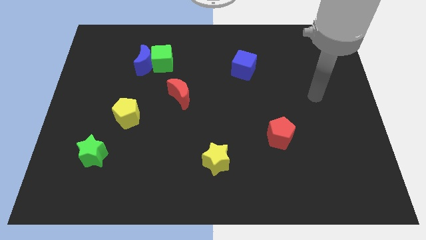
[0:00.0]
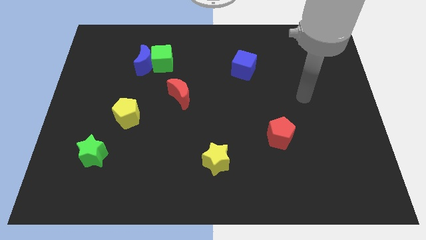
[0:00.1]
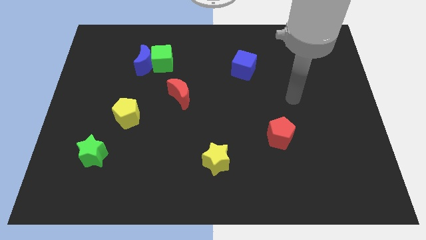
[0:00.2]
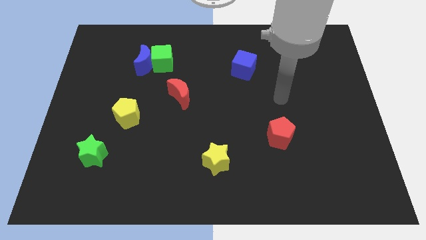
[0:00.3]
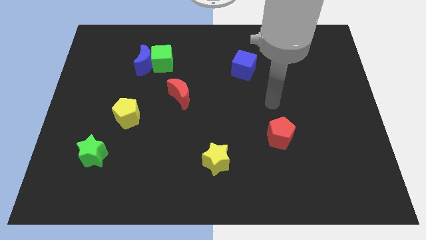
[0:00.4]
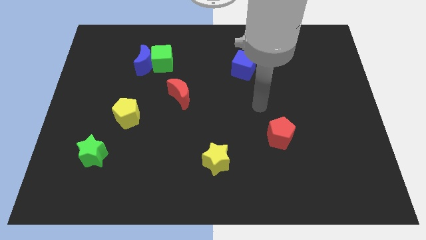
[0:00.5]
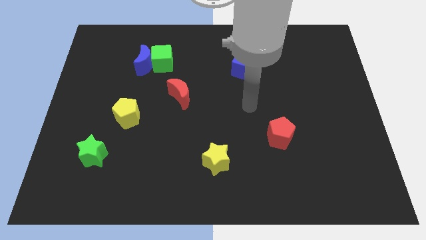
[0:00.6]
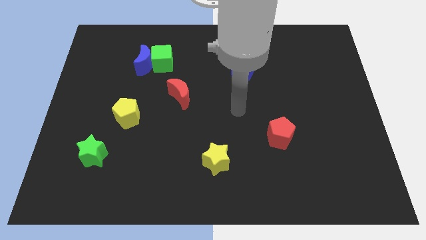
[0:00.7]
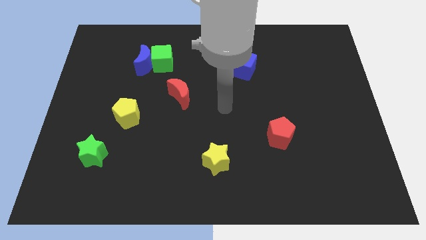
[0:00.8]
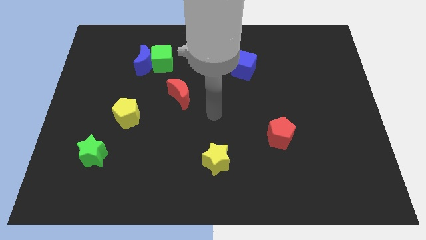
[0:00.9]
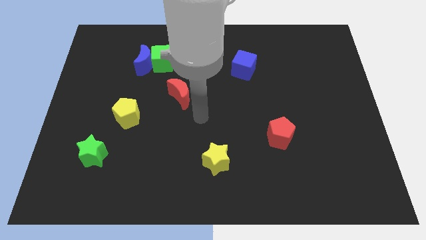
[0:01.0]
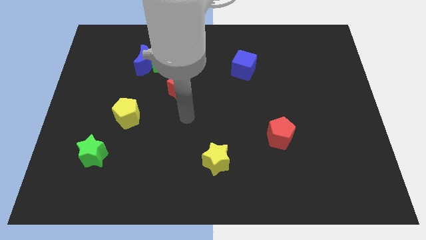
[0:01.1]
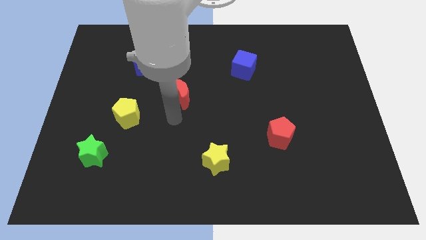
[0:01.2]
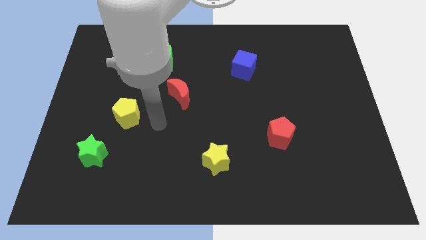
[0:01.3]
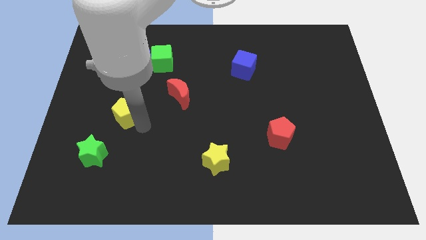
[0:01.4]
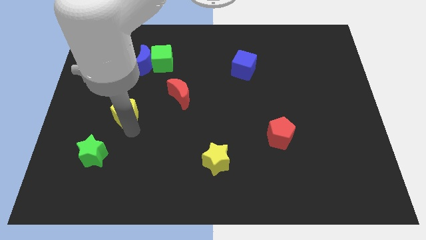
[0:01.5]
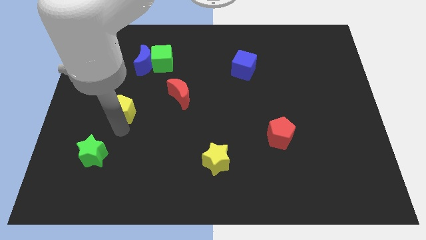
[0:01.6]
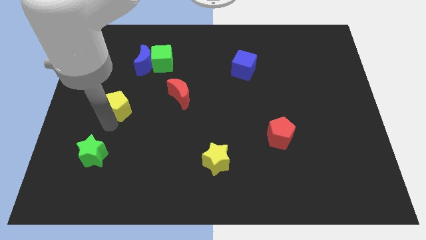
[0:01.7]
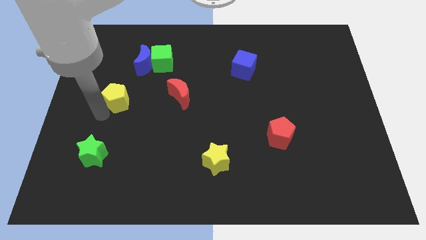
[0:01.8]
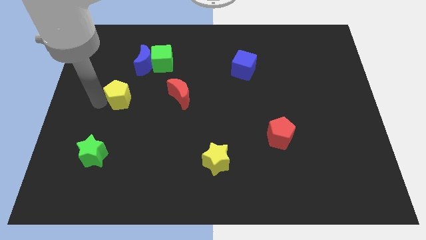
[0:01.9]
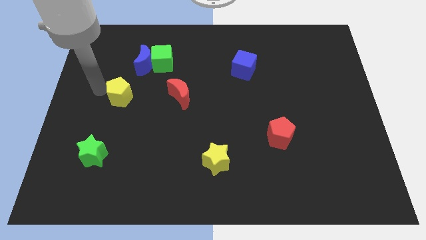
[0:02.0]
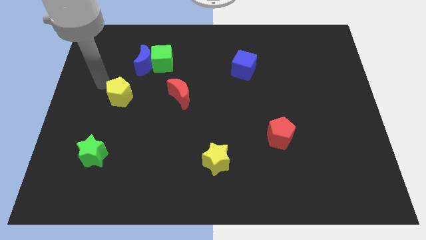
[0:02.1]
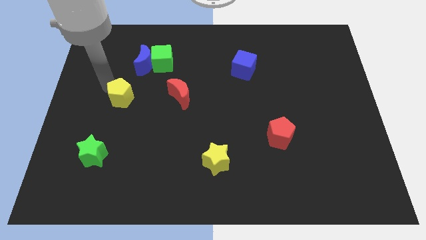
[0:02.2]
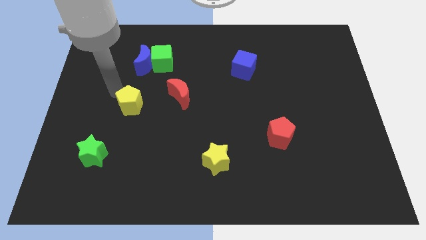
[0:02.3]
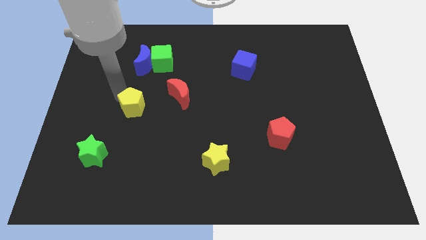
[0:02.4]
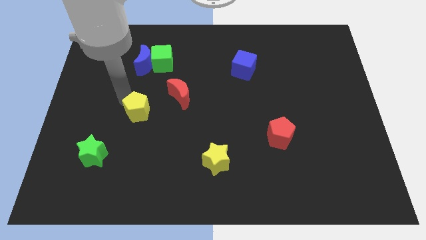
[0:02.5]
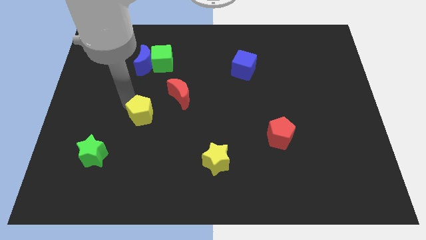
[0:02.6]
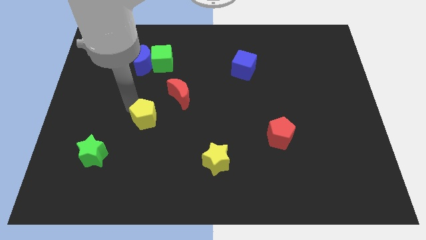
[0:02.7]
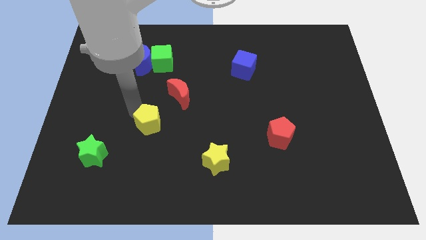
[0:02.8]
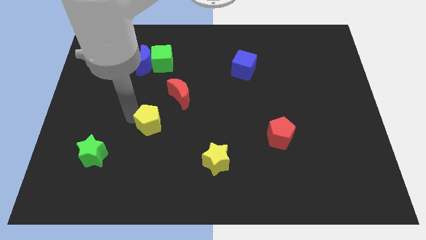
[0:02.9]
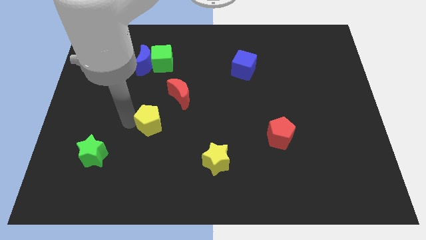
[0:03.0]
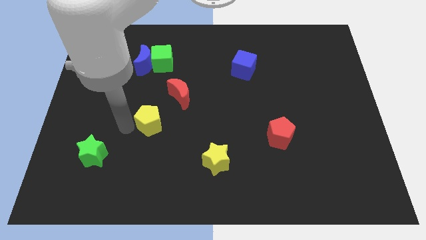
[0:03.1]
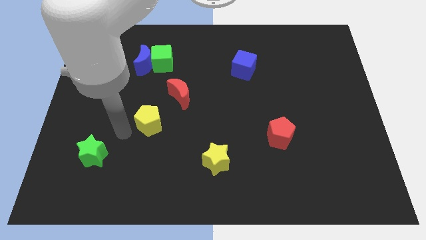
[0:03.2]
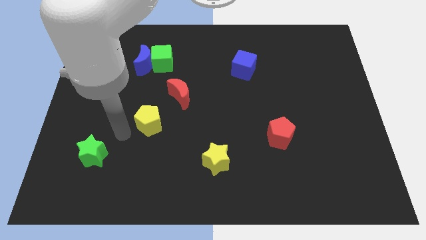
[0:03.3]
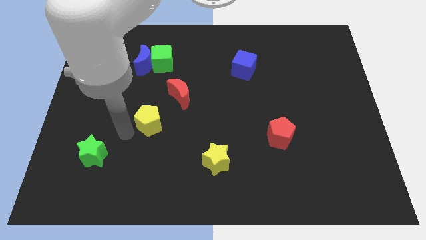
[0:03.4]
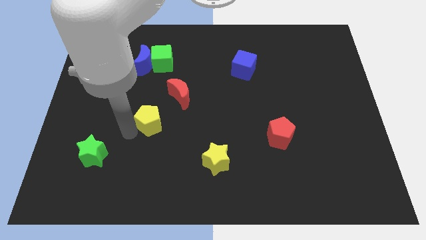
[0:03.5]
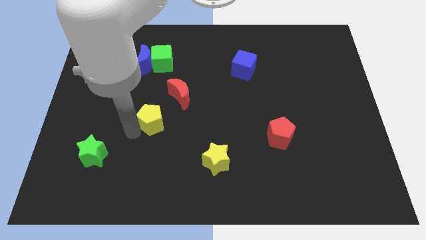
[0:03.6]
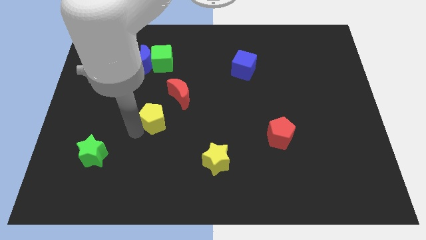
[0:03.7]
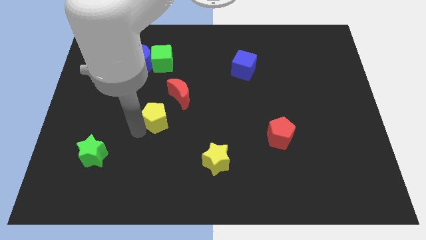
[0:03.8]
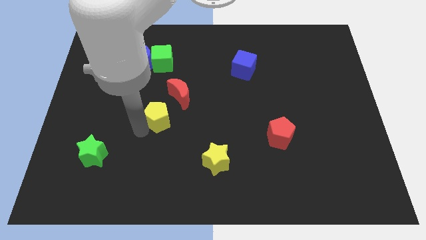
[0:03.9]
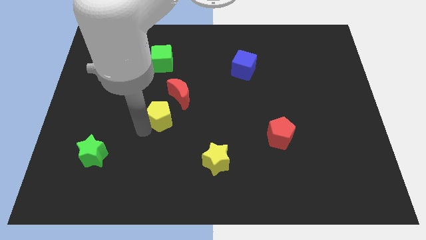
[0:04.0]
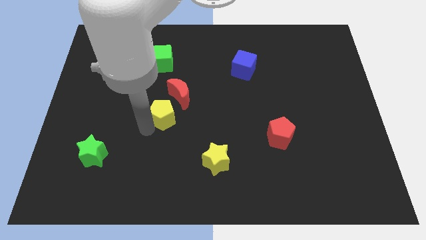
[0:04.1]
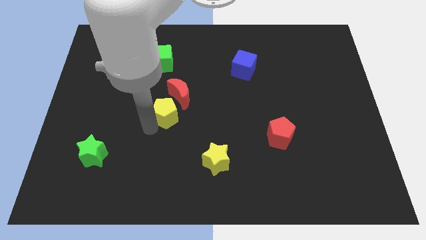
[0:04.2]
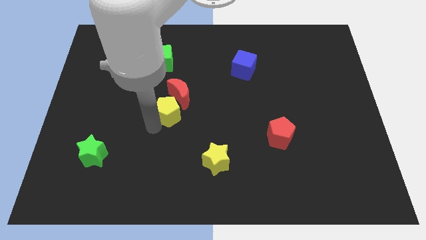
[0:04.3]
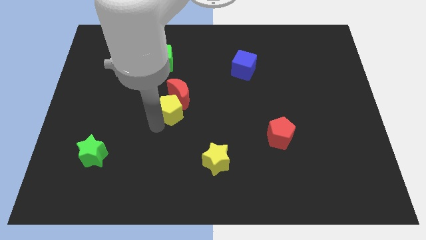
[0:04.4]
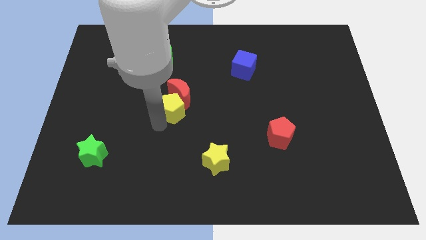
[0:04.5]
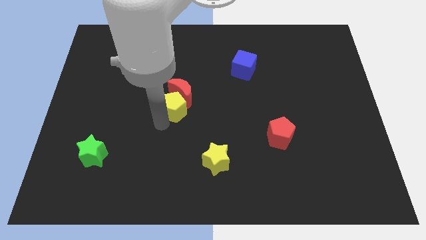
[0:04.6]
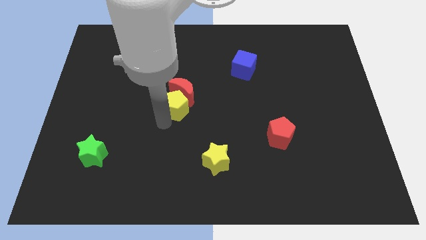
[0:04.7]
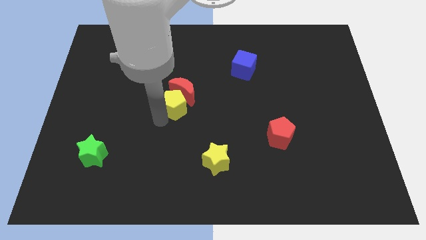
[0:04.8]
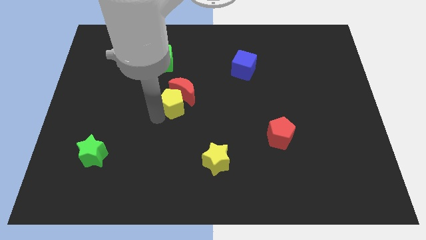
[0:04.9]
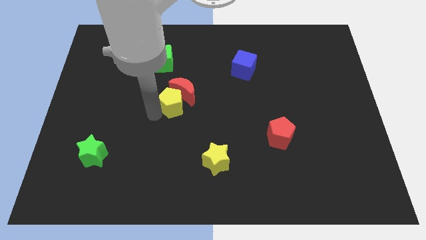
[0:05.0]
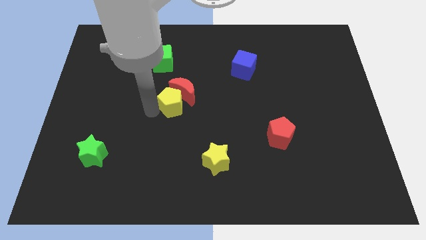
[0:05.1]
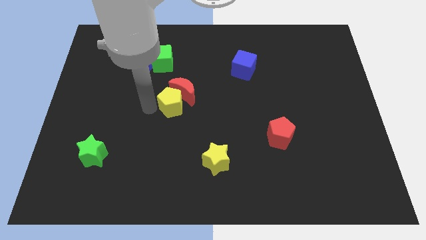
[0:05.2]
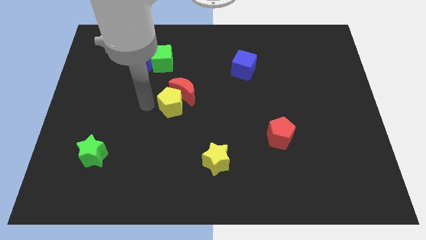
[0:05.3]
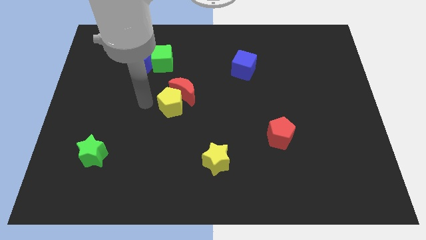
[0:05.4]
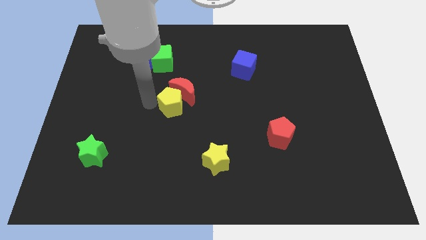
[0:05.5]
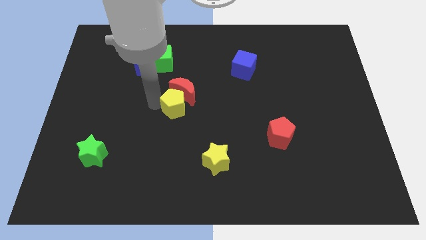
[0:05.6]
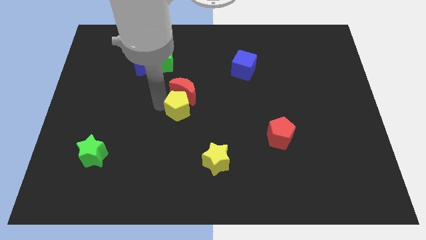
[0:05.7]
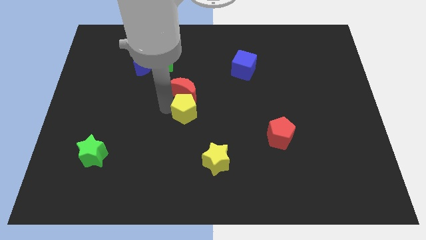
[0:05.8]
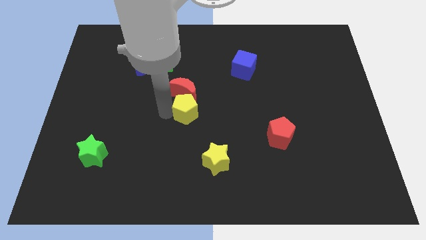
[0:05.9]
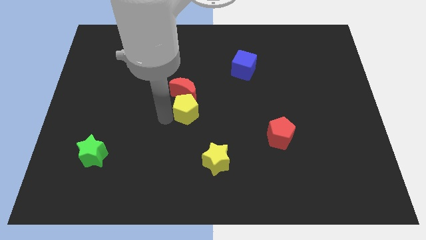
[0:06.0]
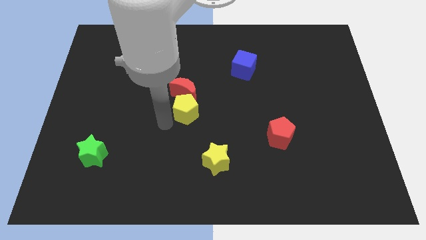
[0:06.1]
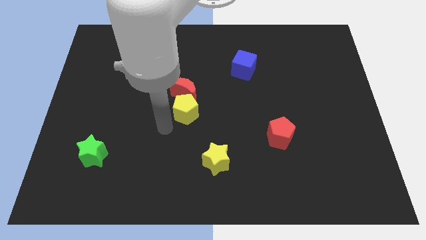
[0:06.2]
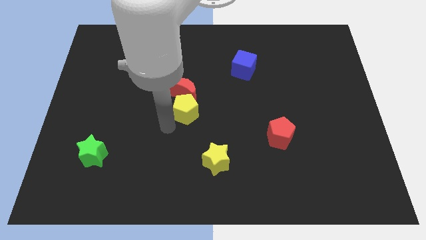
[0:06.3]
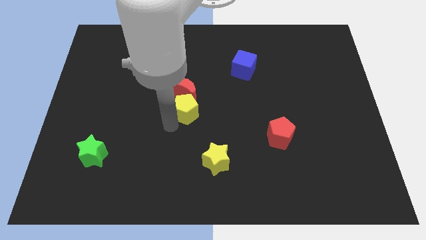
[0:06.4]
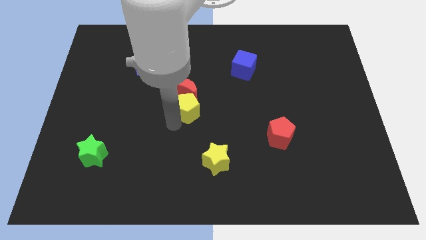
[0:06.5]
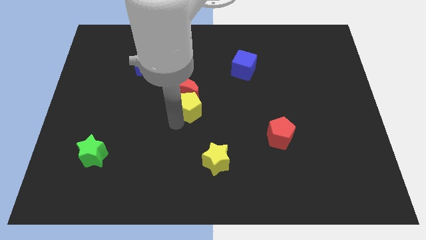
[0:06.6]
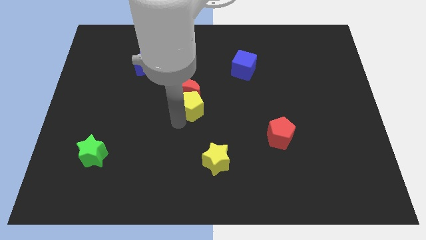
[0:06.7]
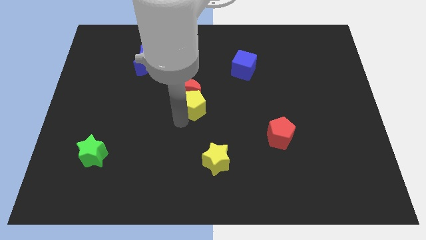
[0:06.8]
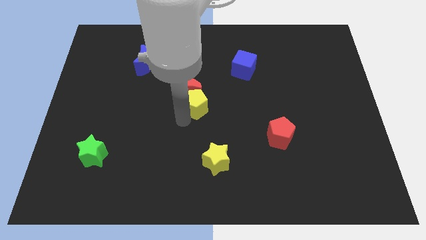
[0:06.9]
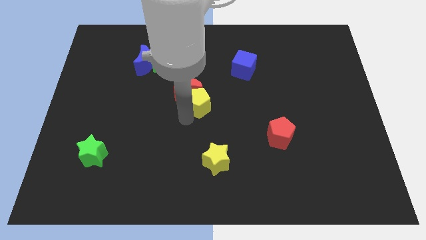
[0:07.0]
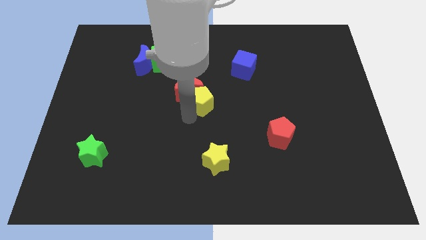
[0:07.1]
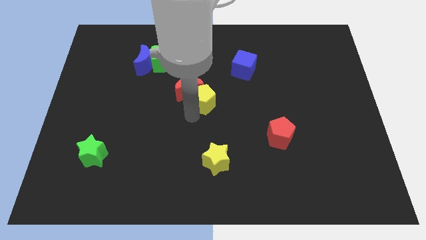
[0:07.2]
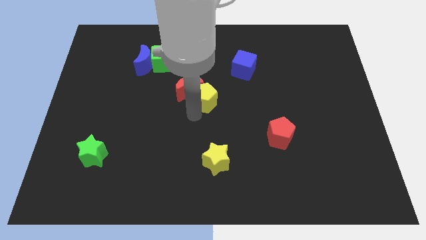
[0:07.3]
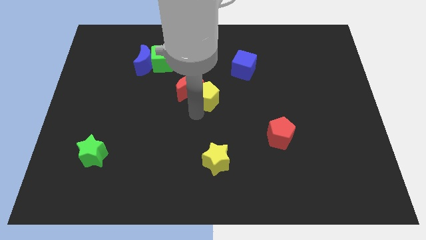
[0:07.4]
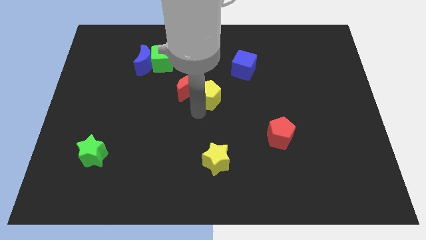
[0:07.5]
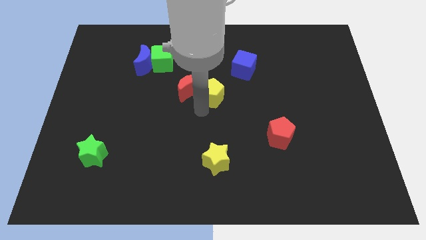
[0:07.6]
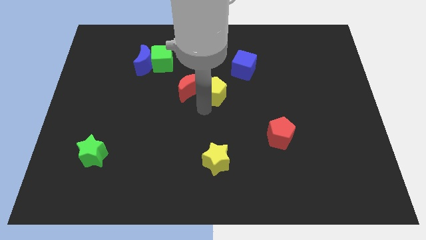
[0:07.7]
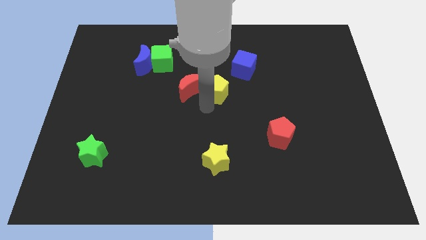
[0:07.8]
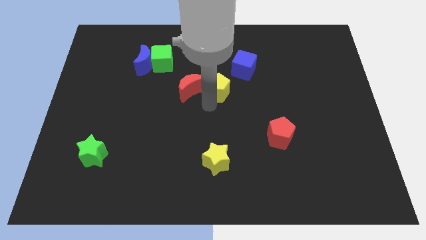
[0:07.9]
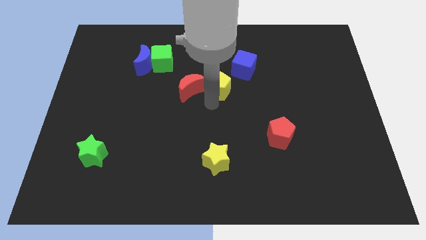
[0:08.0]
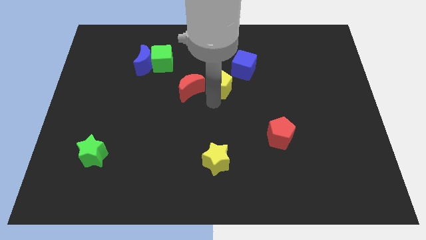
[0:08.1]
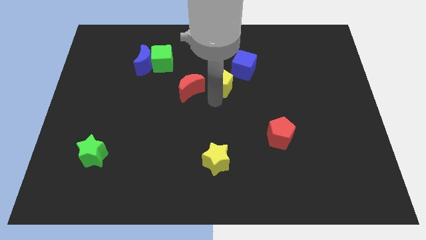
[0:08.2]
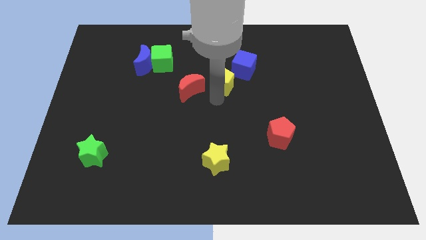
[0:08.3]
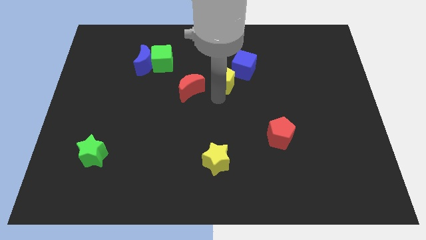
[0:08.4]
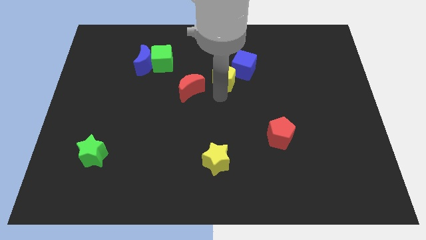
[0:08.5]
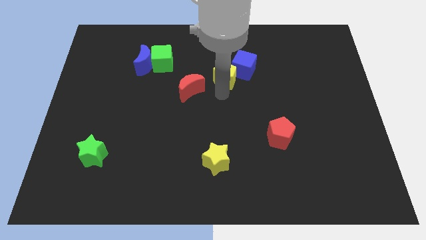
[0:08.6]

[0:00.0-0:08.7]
move the yellow pentagon towards the blue cube
